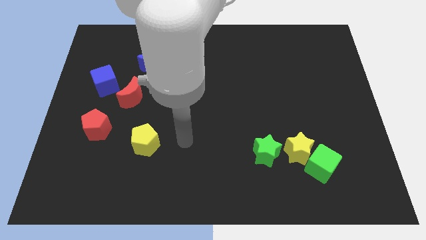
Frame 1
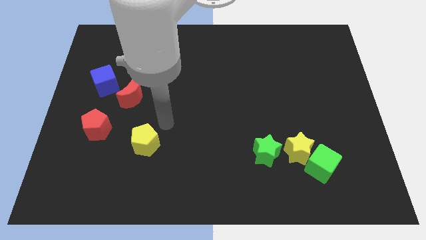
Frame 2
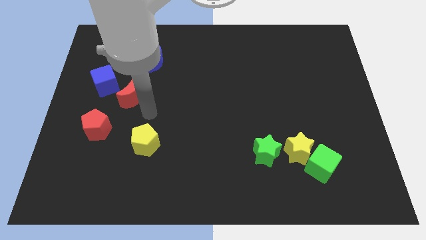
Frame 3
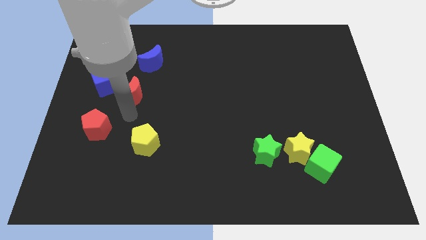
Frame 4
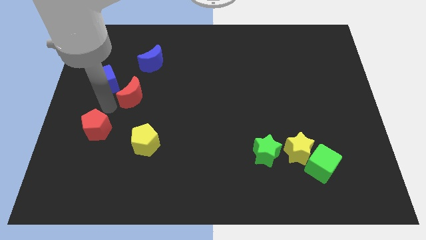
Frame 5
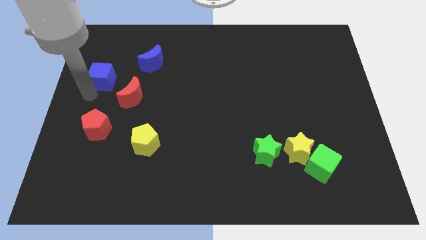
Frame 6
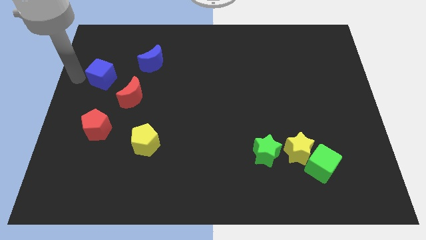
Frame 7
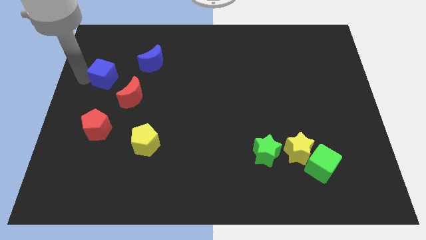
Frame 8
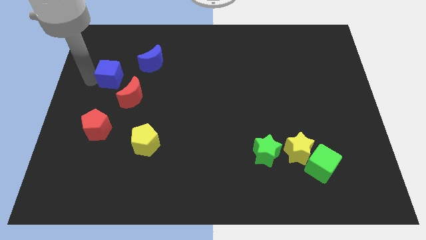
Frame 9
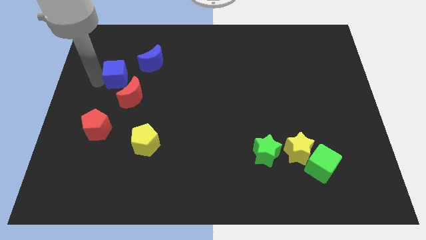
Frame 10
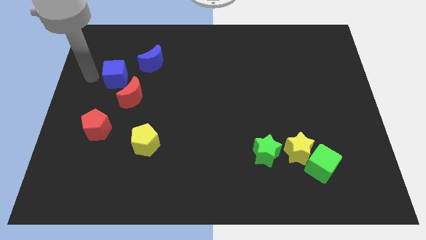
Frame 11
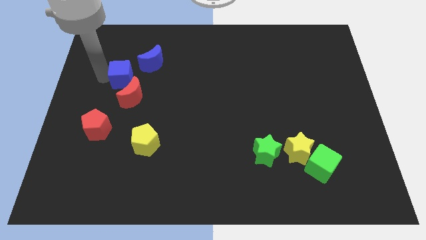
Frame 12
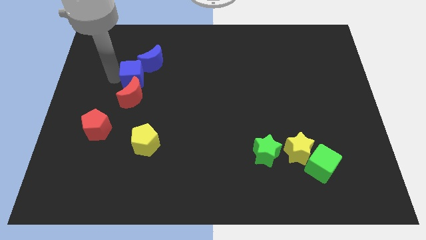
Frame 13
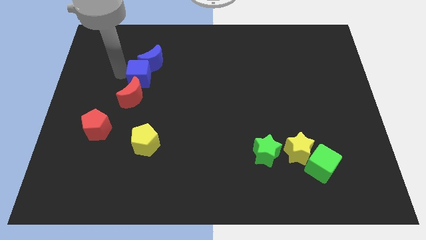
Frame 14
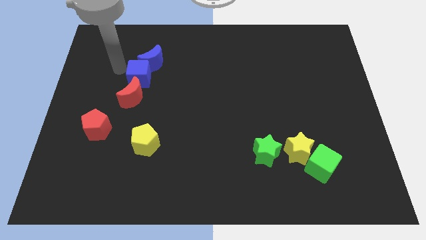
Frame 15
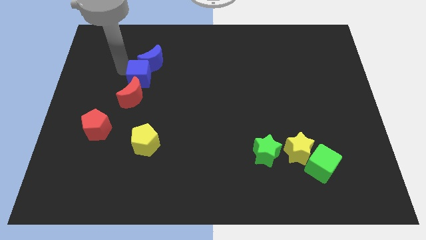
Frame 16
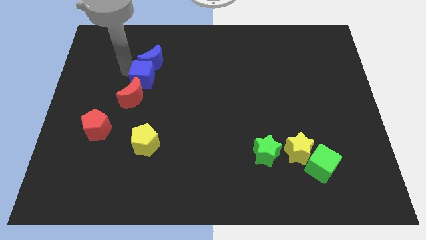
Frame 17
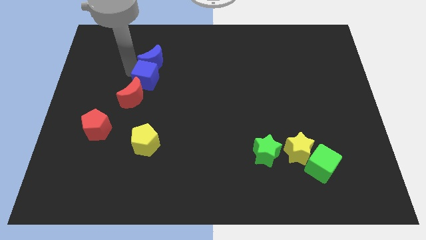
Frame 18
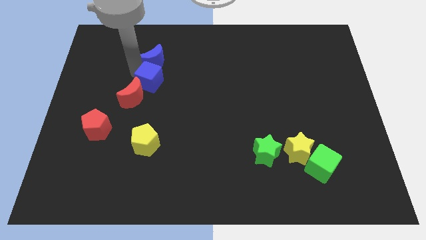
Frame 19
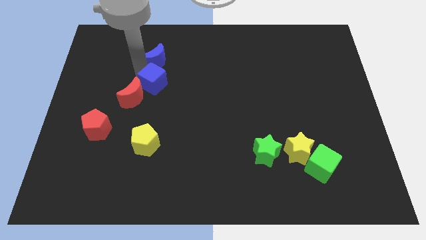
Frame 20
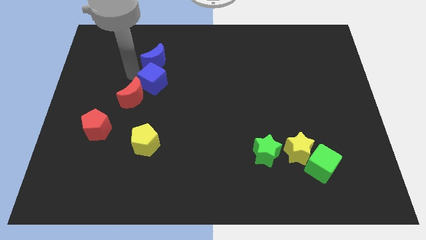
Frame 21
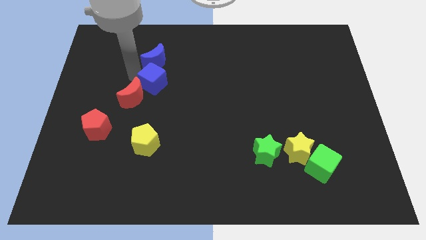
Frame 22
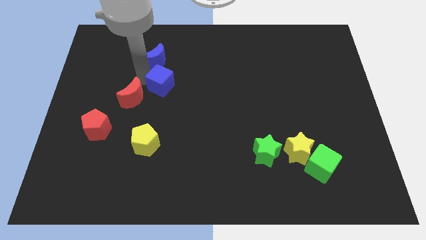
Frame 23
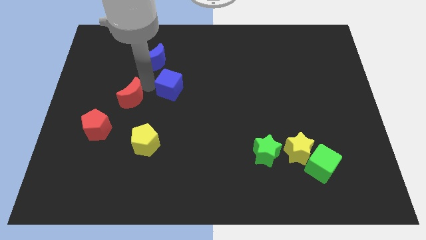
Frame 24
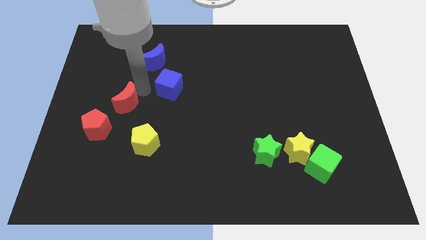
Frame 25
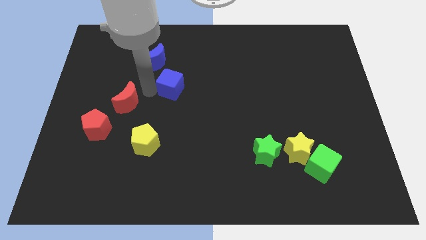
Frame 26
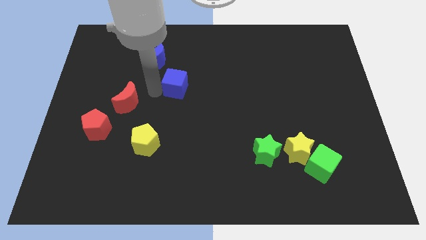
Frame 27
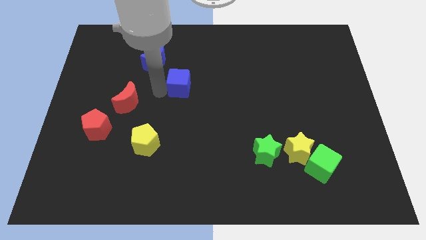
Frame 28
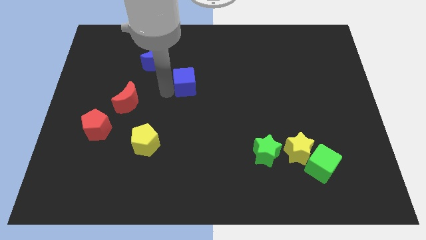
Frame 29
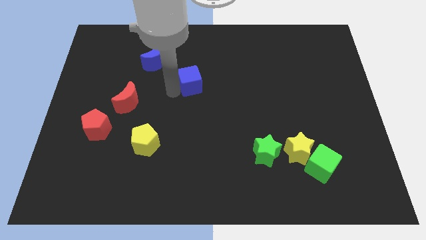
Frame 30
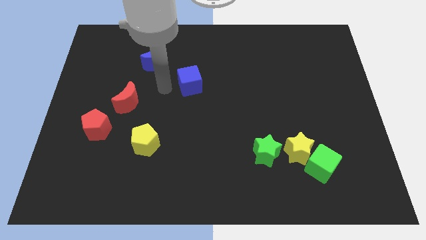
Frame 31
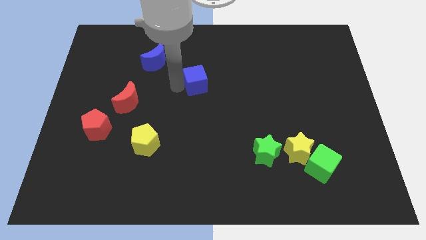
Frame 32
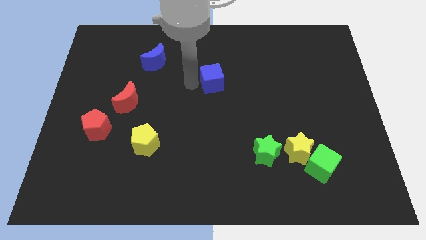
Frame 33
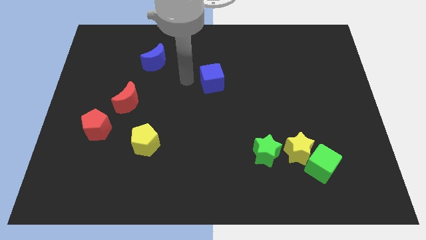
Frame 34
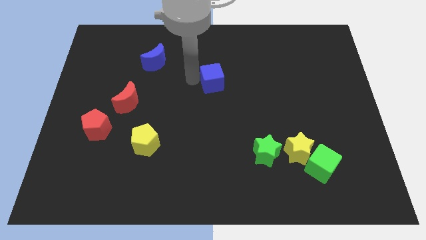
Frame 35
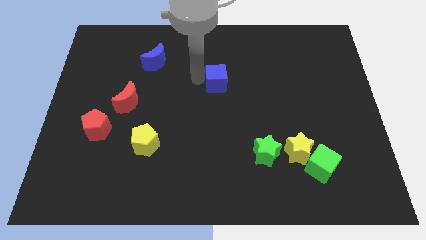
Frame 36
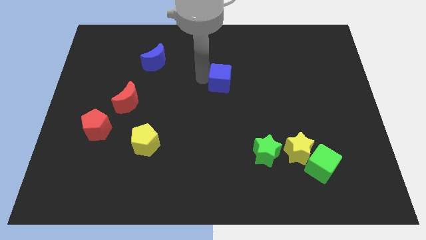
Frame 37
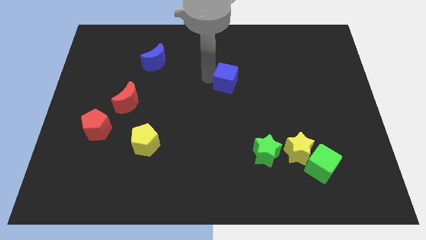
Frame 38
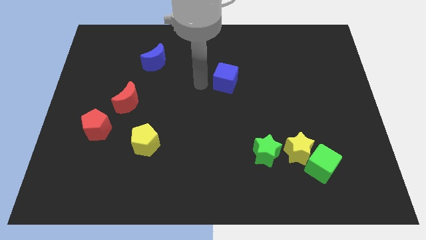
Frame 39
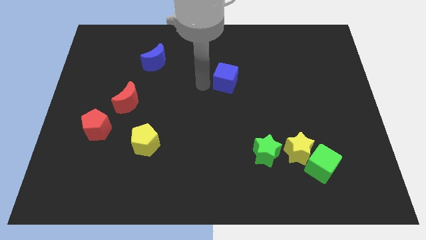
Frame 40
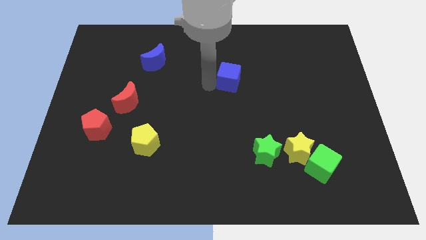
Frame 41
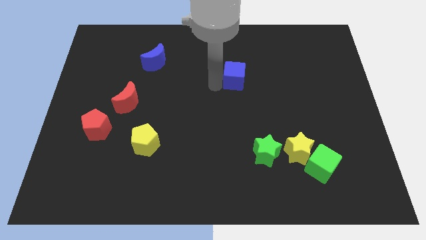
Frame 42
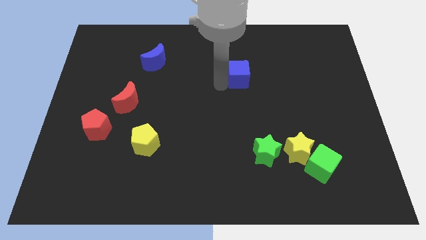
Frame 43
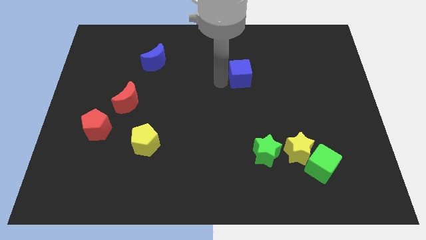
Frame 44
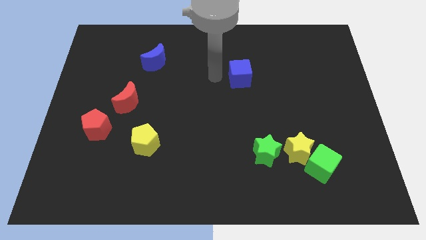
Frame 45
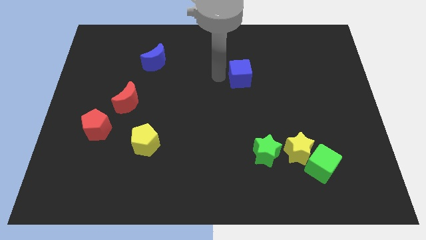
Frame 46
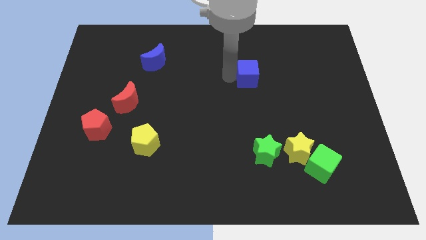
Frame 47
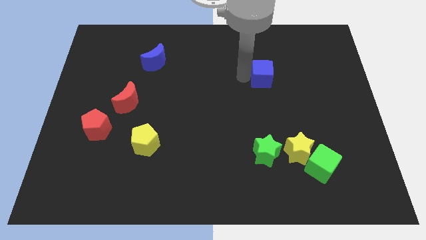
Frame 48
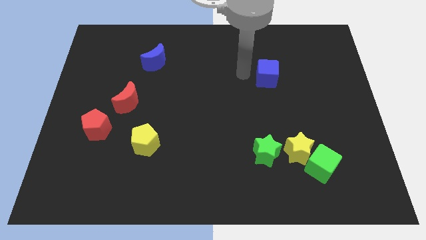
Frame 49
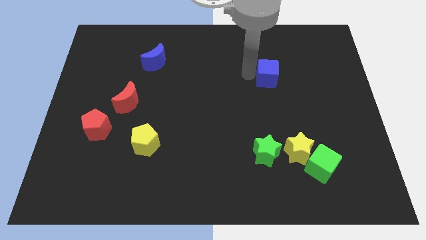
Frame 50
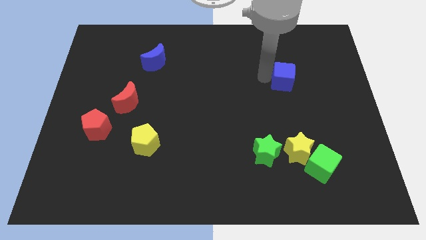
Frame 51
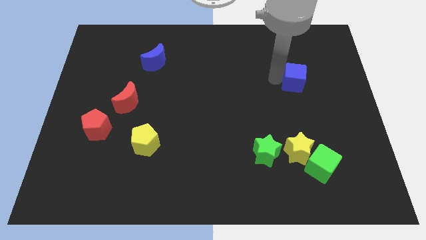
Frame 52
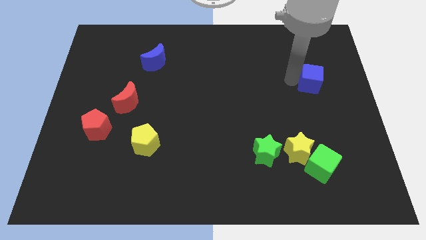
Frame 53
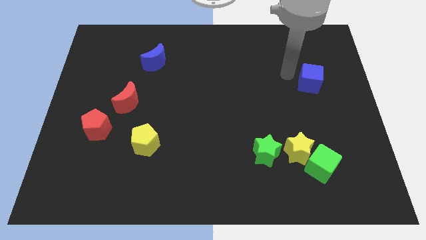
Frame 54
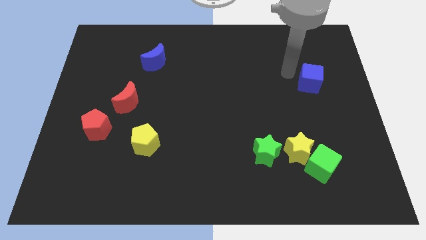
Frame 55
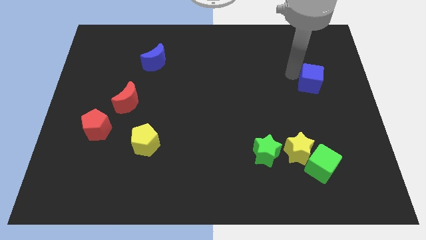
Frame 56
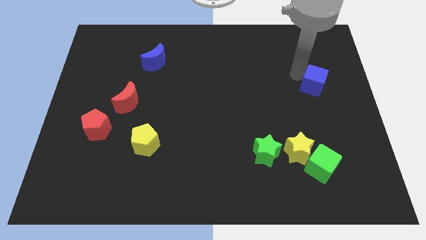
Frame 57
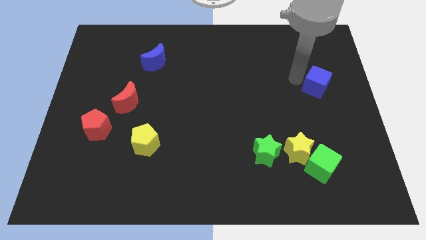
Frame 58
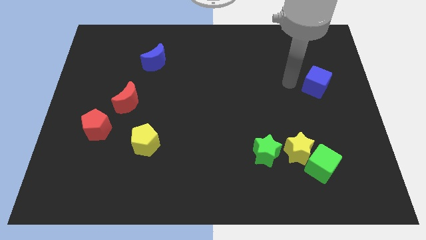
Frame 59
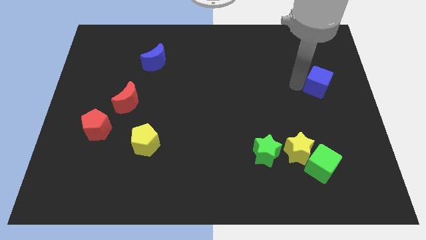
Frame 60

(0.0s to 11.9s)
move the blue cube to the right side of the board

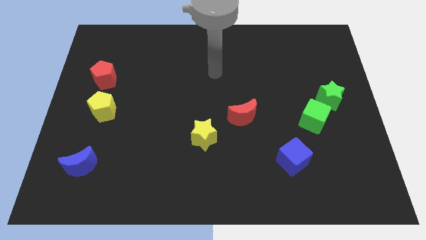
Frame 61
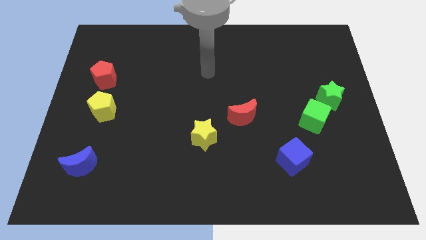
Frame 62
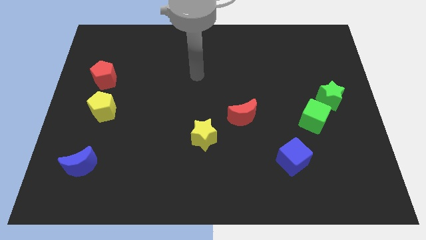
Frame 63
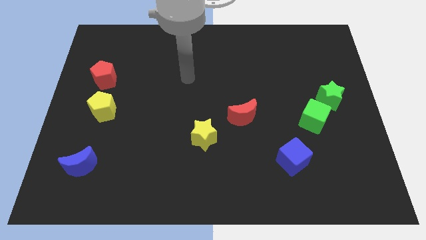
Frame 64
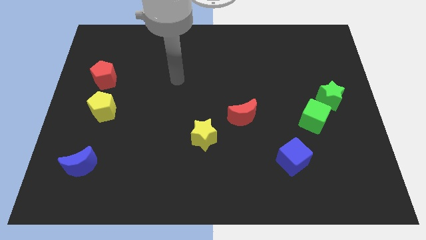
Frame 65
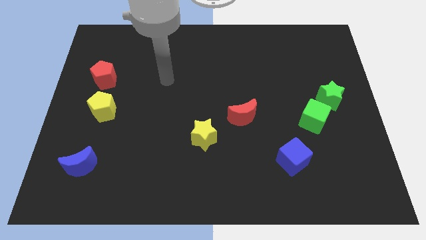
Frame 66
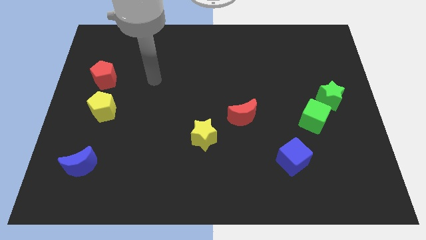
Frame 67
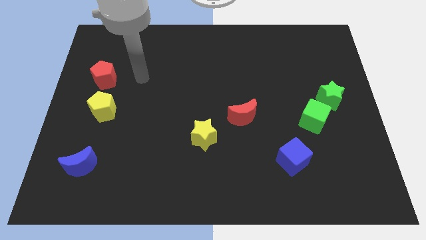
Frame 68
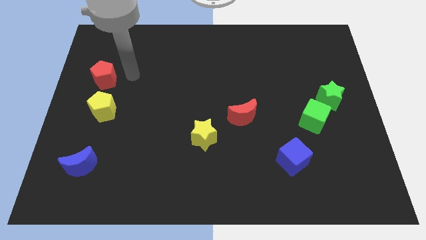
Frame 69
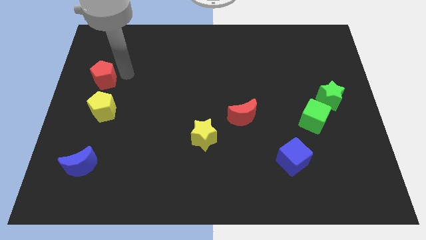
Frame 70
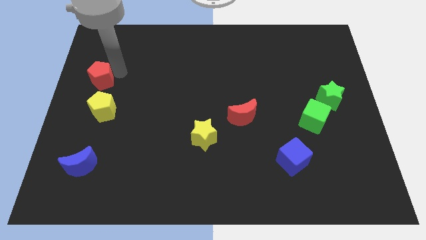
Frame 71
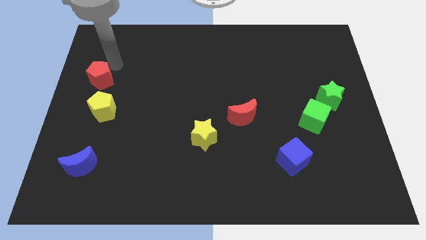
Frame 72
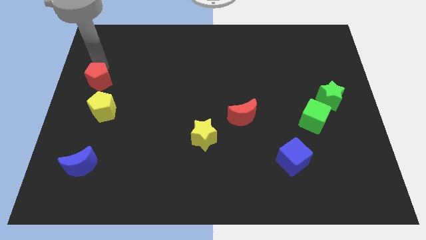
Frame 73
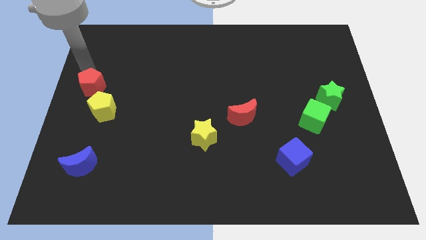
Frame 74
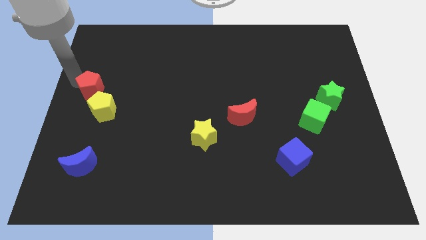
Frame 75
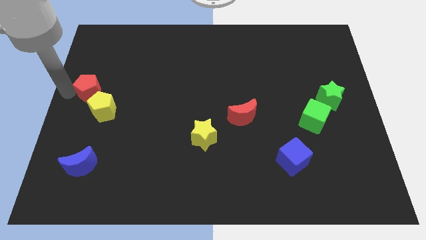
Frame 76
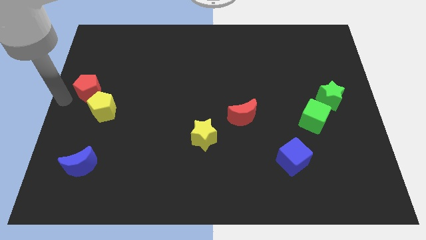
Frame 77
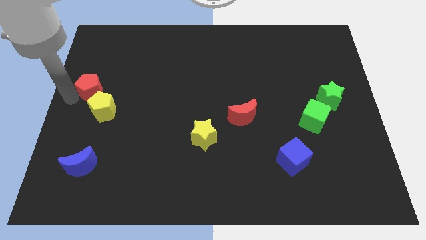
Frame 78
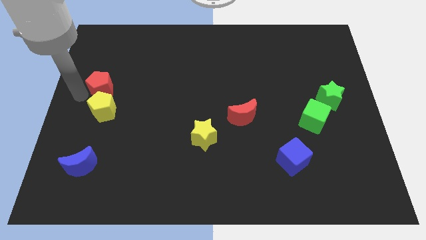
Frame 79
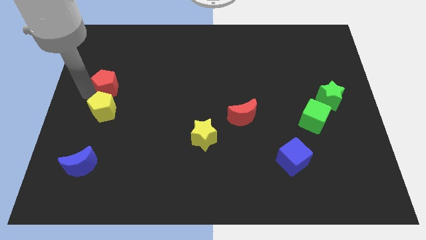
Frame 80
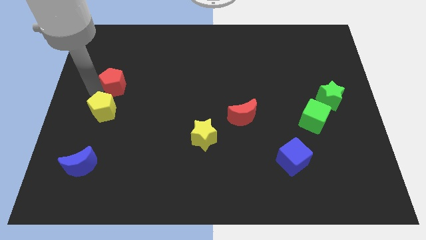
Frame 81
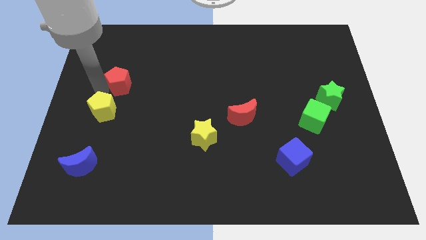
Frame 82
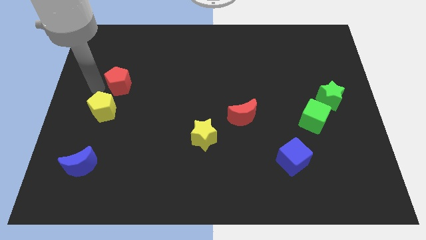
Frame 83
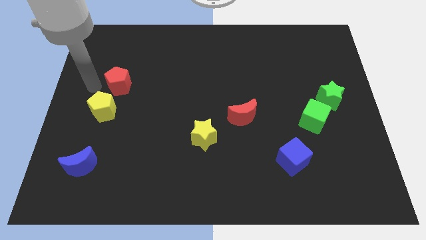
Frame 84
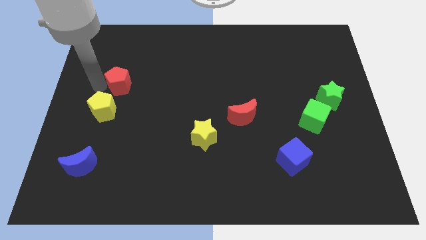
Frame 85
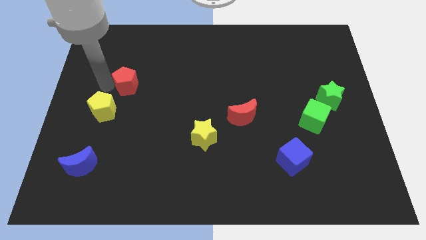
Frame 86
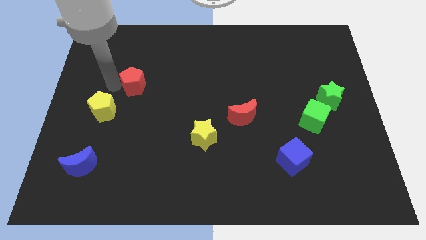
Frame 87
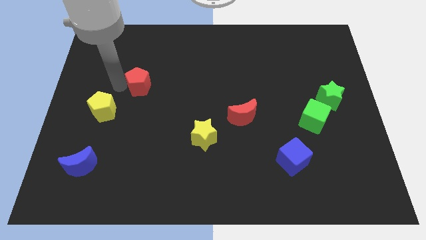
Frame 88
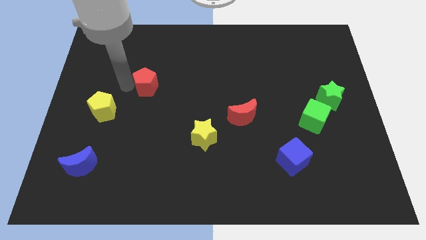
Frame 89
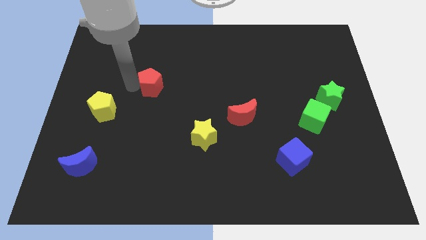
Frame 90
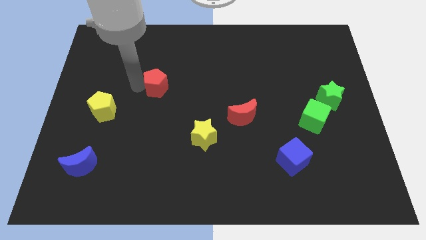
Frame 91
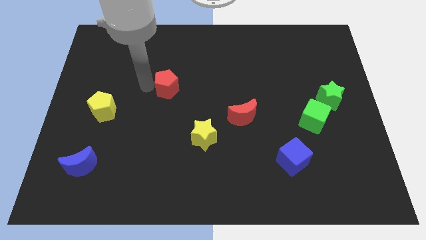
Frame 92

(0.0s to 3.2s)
put the red pentagon to the middle of the board
